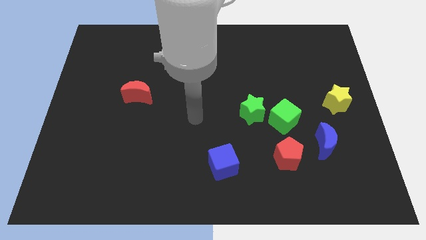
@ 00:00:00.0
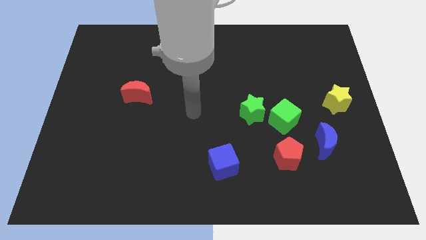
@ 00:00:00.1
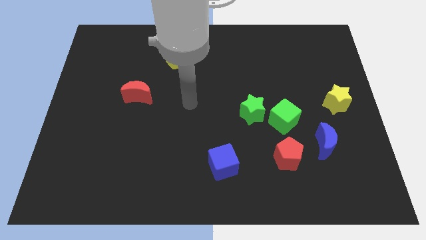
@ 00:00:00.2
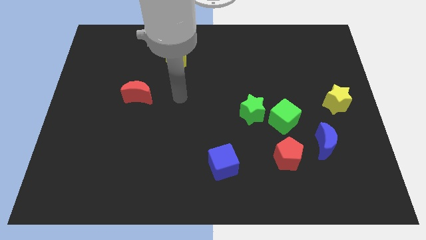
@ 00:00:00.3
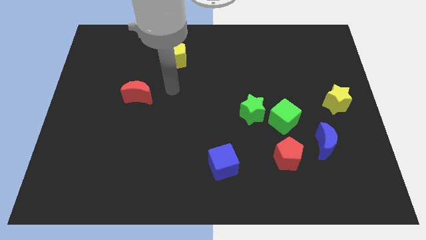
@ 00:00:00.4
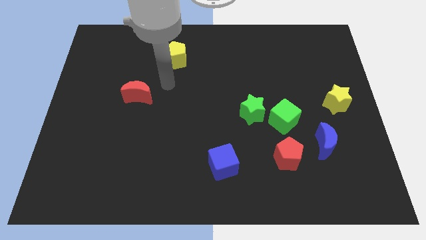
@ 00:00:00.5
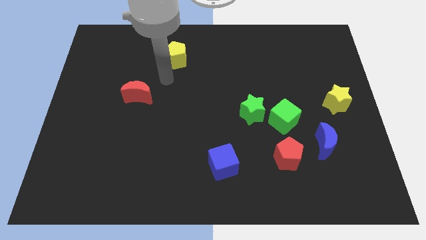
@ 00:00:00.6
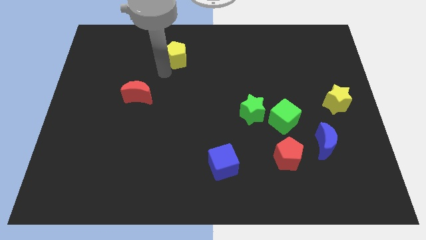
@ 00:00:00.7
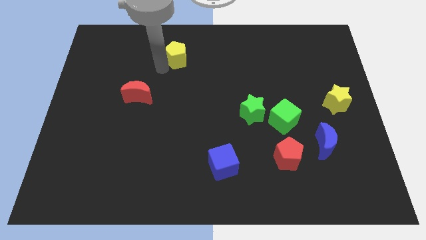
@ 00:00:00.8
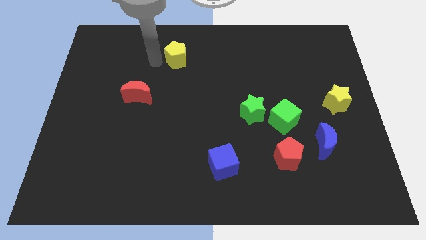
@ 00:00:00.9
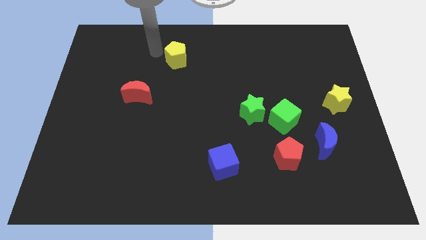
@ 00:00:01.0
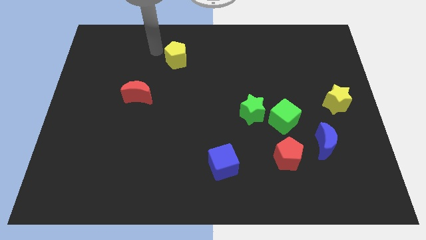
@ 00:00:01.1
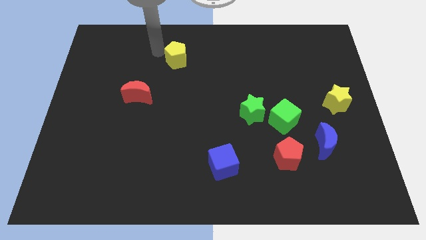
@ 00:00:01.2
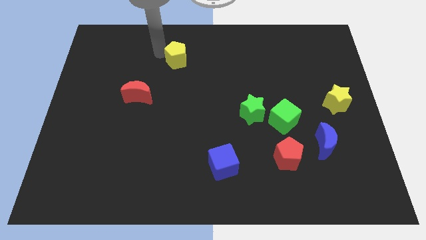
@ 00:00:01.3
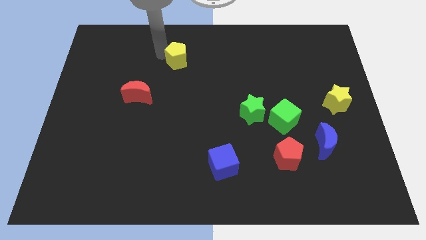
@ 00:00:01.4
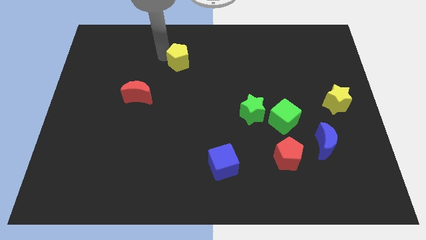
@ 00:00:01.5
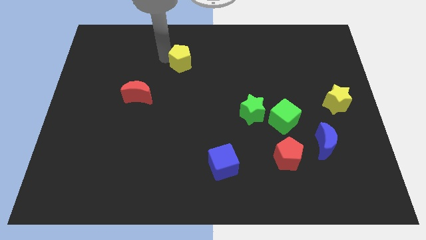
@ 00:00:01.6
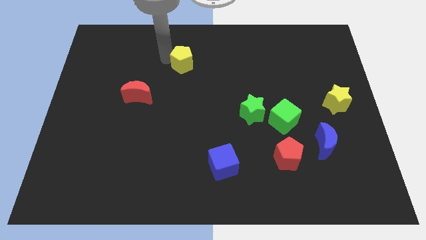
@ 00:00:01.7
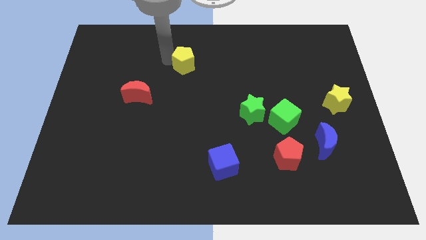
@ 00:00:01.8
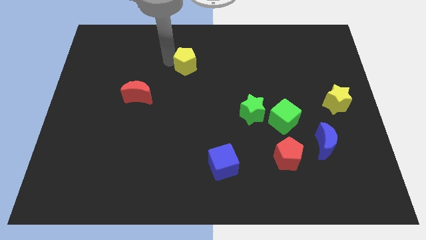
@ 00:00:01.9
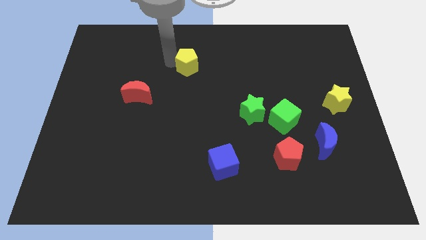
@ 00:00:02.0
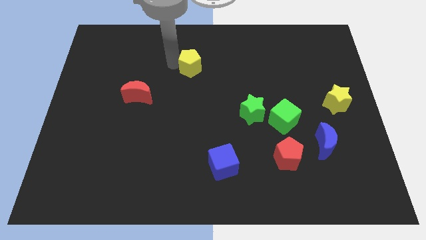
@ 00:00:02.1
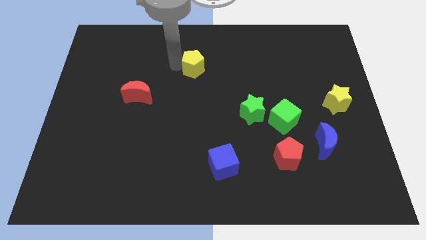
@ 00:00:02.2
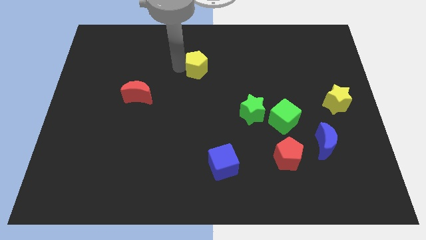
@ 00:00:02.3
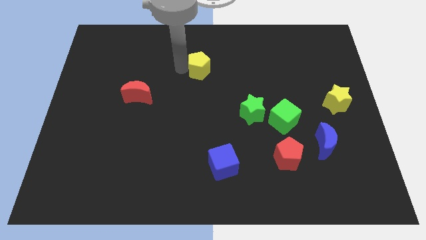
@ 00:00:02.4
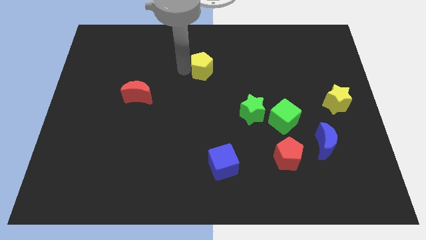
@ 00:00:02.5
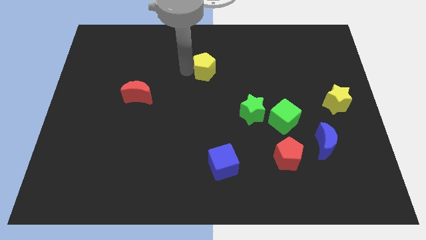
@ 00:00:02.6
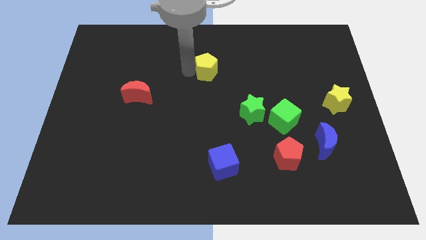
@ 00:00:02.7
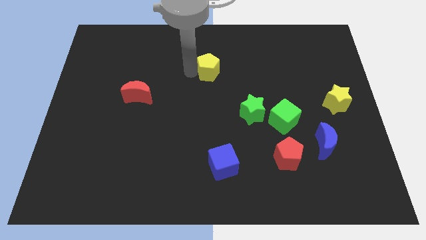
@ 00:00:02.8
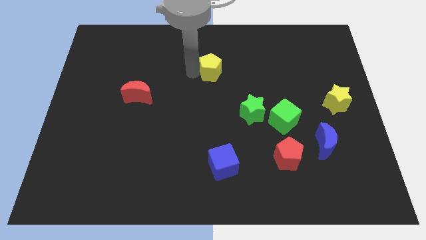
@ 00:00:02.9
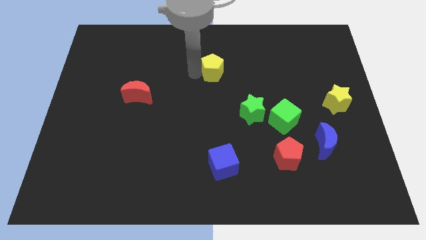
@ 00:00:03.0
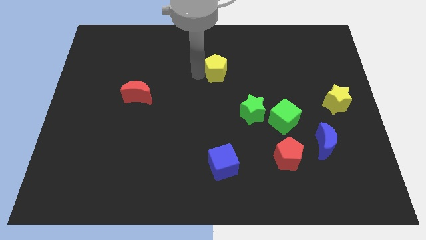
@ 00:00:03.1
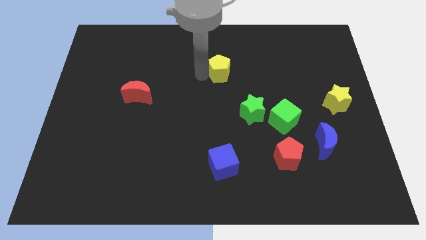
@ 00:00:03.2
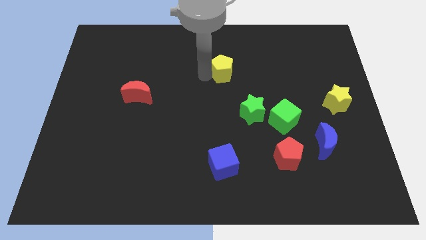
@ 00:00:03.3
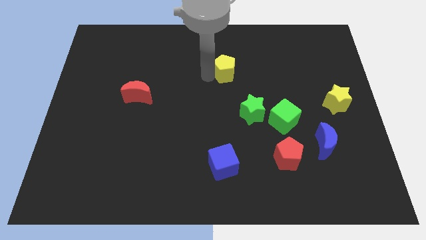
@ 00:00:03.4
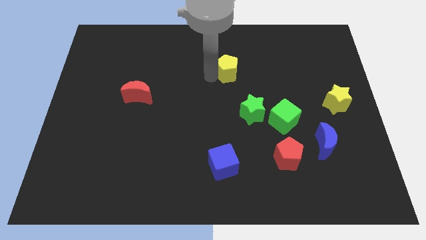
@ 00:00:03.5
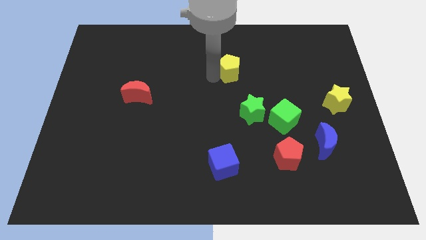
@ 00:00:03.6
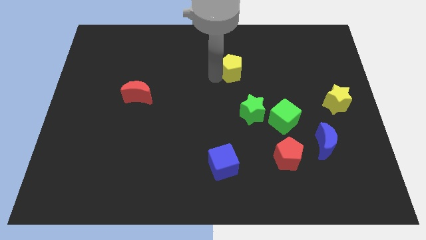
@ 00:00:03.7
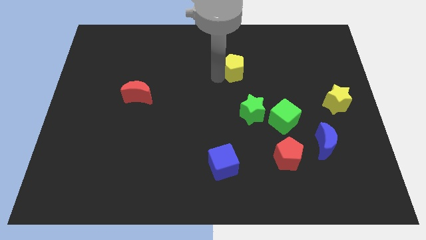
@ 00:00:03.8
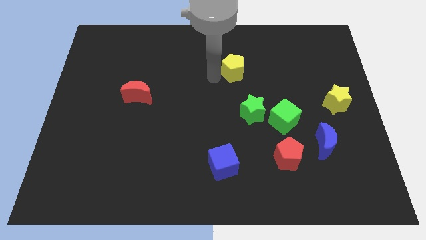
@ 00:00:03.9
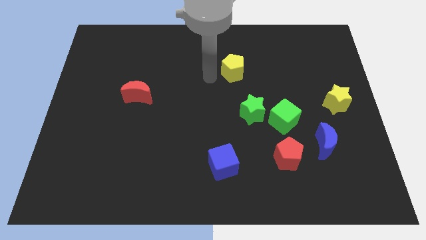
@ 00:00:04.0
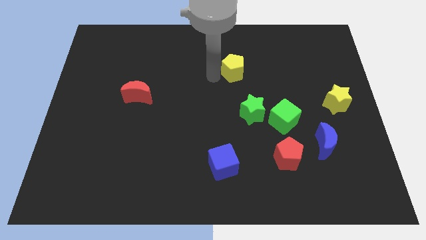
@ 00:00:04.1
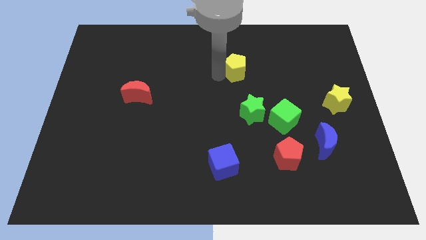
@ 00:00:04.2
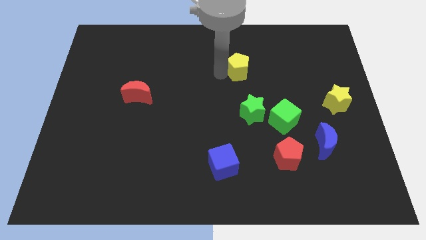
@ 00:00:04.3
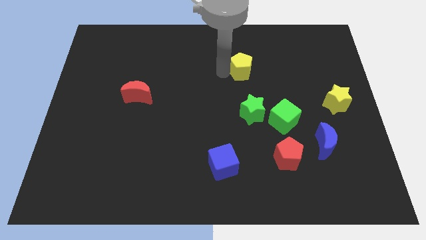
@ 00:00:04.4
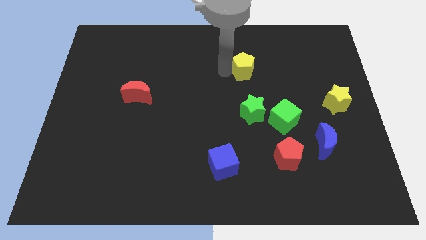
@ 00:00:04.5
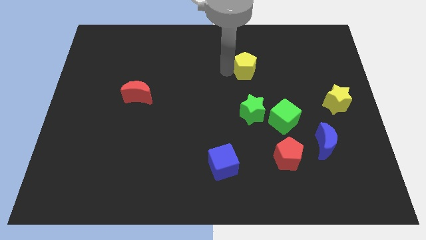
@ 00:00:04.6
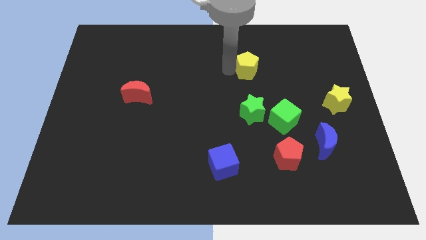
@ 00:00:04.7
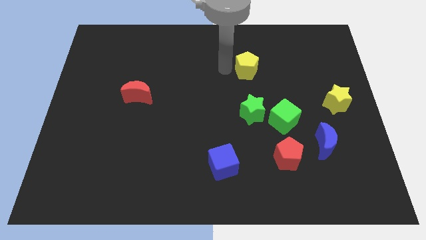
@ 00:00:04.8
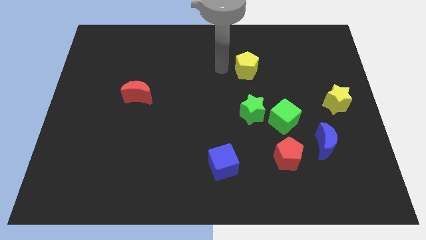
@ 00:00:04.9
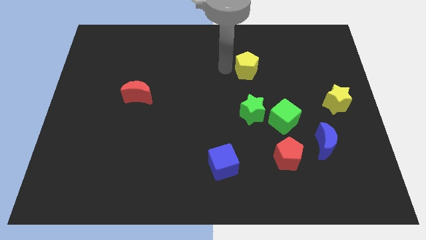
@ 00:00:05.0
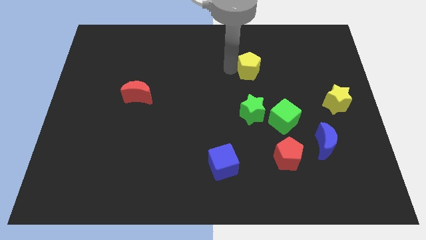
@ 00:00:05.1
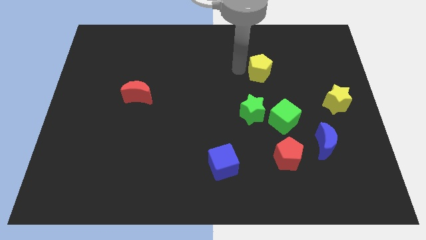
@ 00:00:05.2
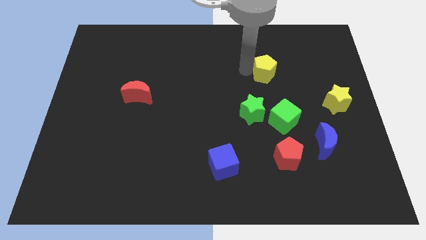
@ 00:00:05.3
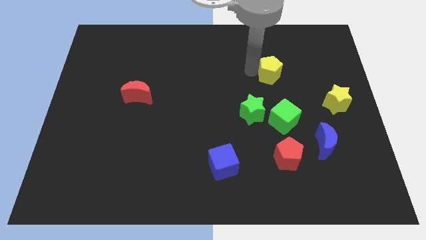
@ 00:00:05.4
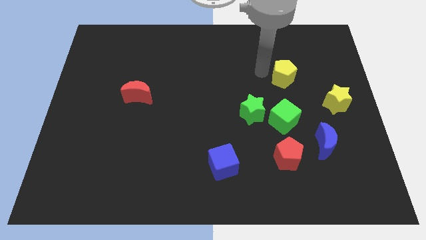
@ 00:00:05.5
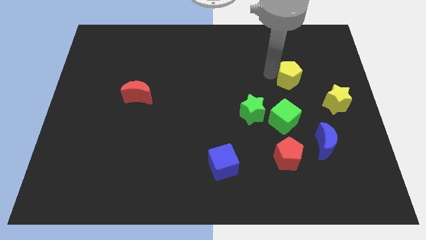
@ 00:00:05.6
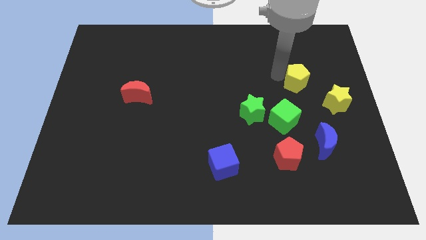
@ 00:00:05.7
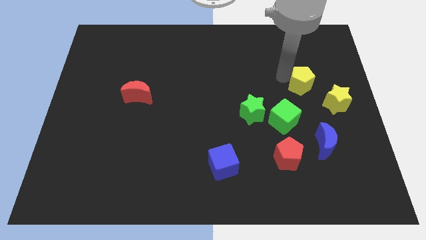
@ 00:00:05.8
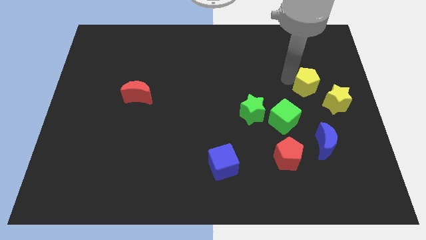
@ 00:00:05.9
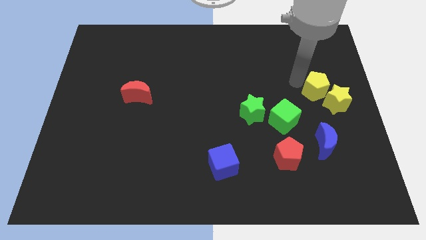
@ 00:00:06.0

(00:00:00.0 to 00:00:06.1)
slide the yellow pentagon close to the yellow star

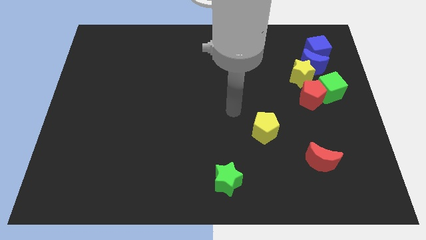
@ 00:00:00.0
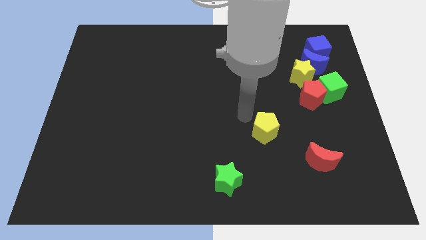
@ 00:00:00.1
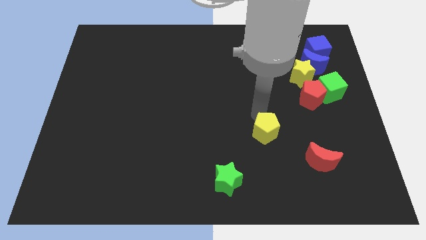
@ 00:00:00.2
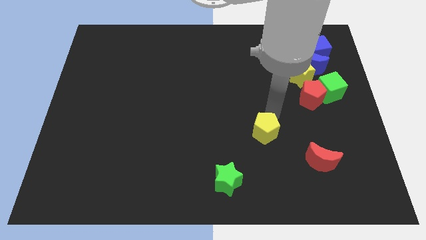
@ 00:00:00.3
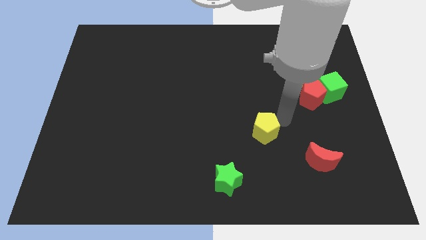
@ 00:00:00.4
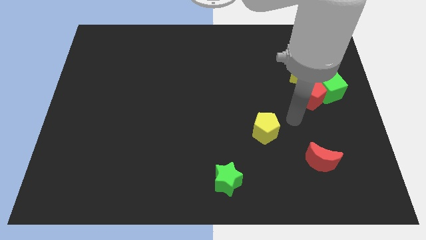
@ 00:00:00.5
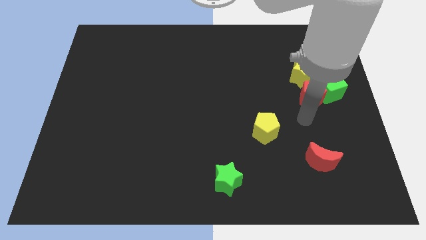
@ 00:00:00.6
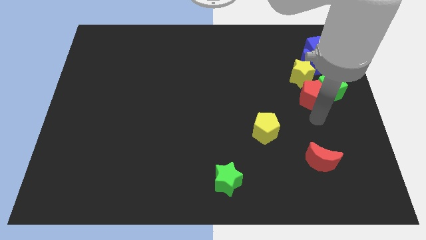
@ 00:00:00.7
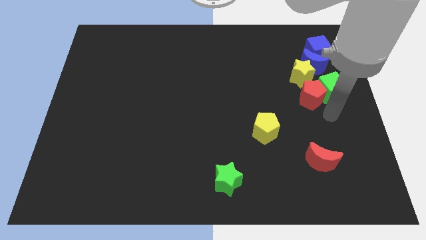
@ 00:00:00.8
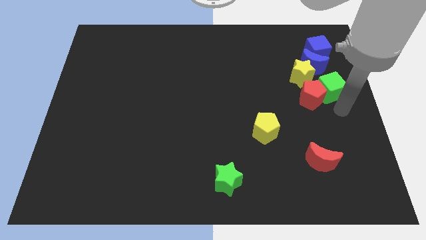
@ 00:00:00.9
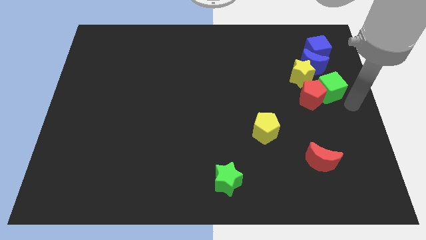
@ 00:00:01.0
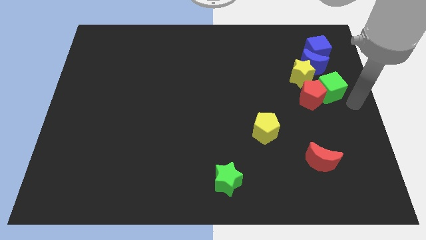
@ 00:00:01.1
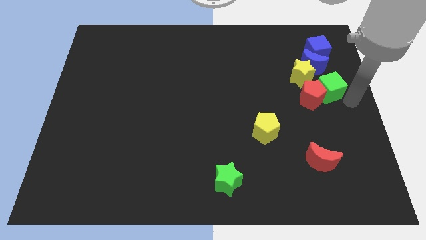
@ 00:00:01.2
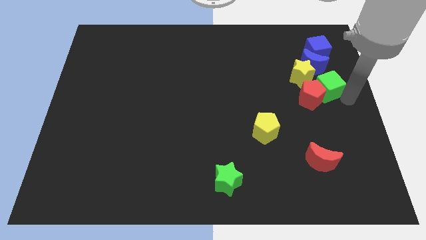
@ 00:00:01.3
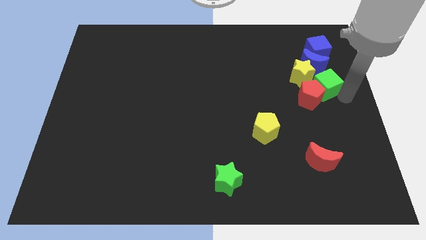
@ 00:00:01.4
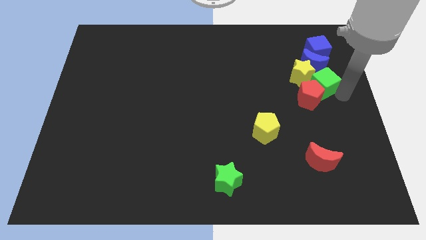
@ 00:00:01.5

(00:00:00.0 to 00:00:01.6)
move the green cube towards the yellow star
